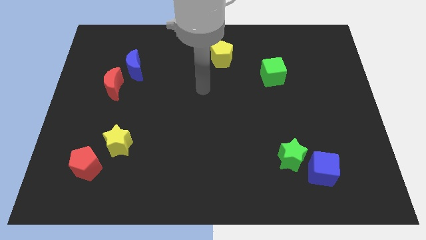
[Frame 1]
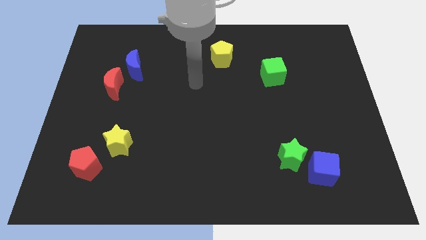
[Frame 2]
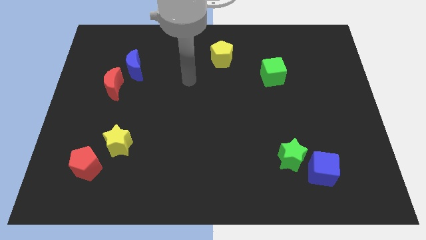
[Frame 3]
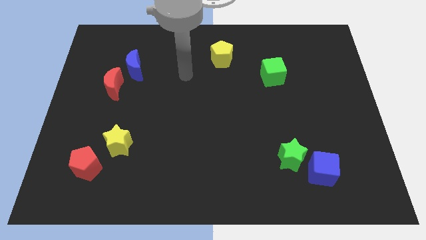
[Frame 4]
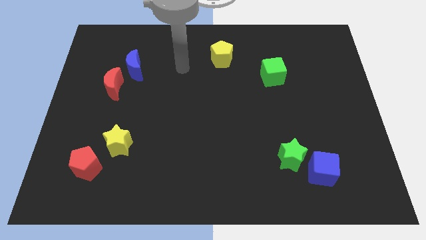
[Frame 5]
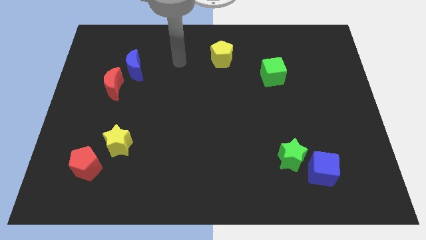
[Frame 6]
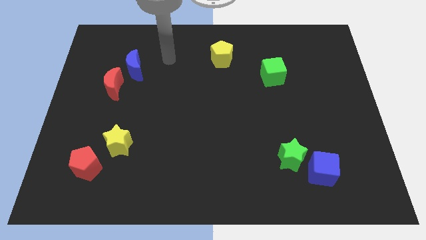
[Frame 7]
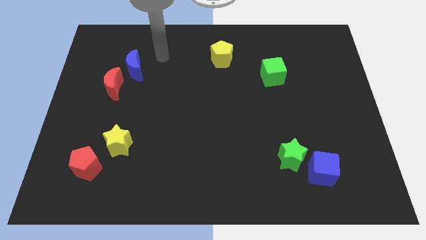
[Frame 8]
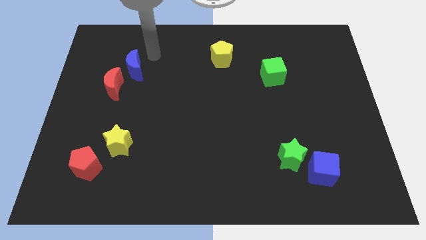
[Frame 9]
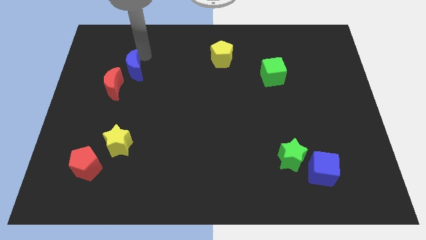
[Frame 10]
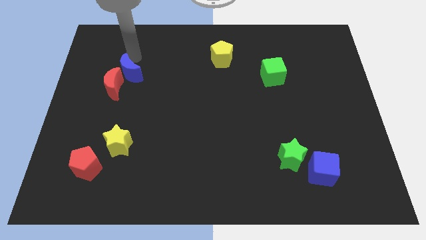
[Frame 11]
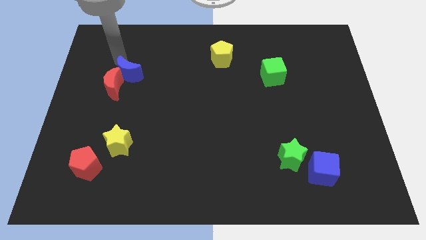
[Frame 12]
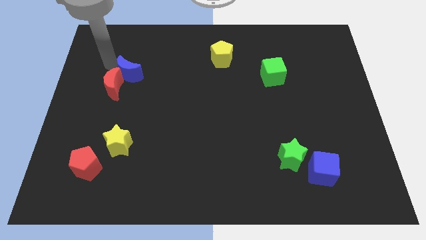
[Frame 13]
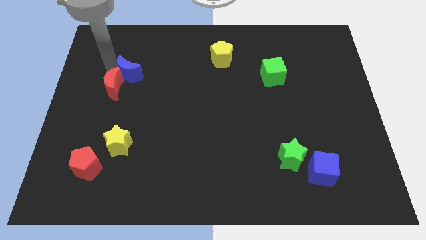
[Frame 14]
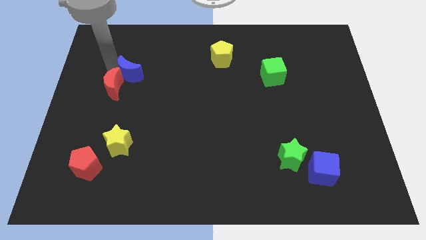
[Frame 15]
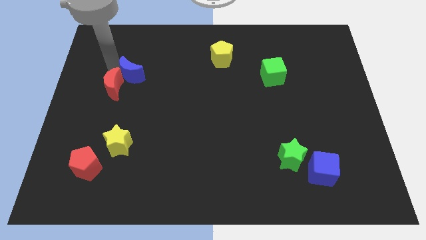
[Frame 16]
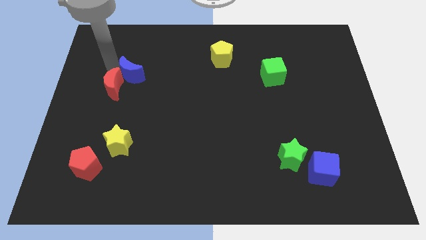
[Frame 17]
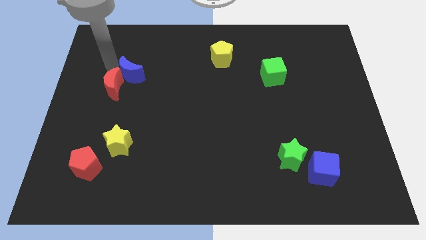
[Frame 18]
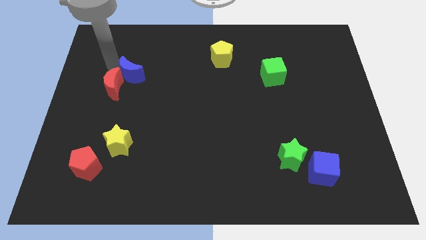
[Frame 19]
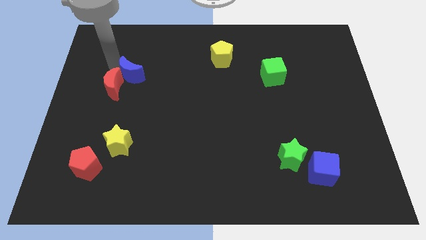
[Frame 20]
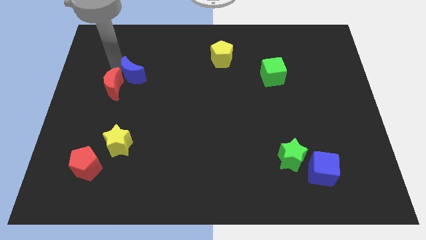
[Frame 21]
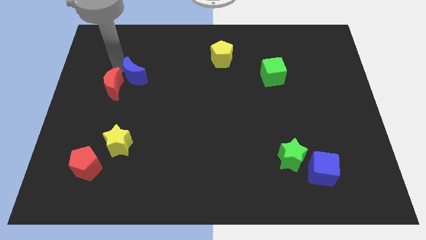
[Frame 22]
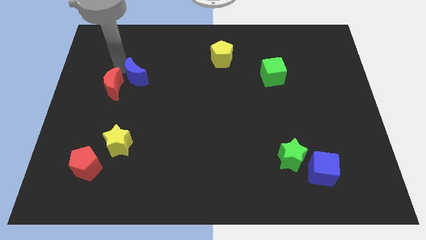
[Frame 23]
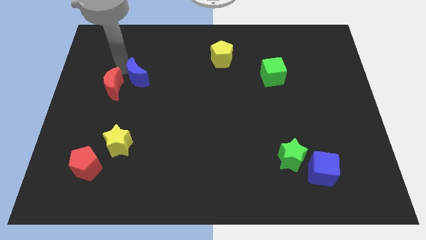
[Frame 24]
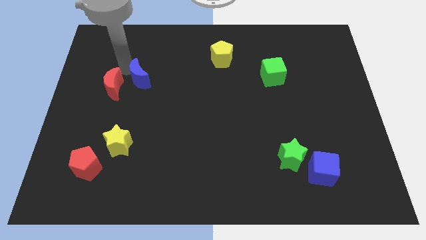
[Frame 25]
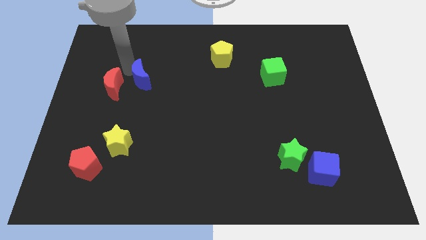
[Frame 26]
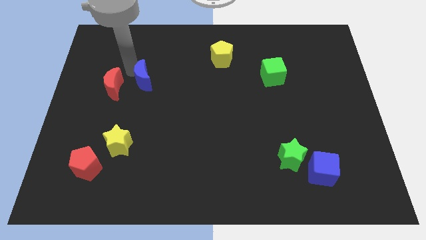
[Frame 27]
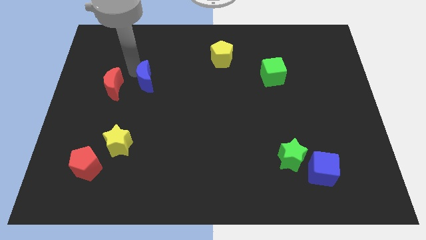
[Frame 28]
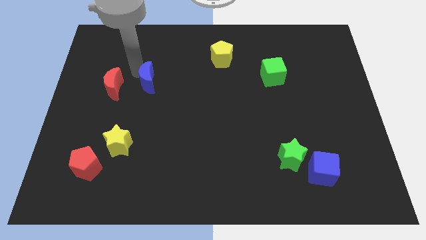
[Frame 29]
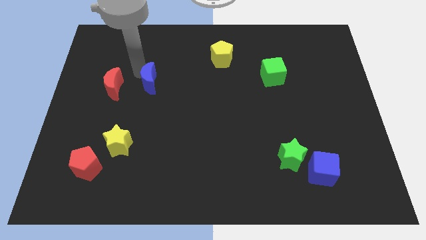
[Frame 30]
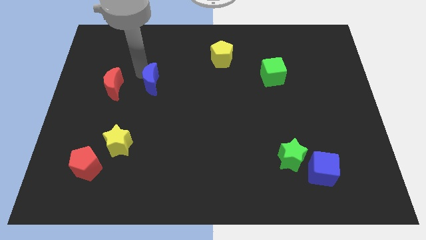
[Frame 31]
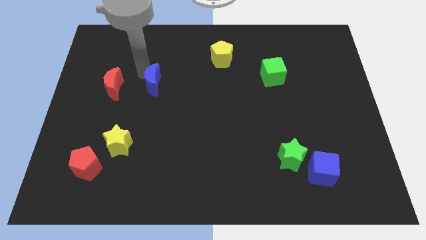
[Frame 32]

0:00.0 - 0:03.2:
slightly move the blue moon down and right

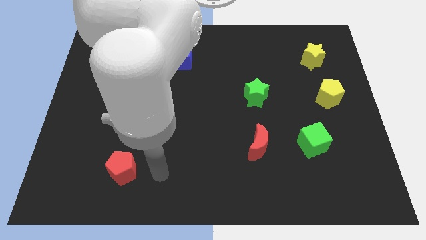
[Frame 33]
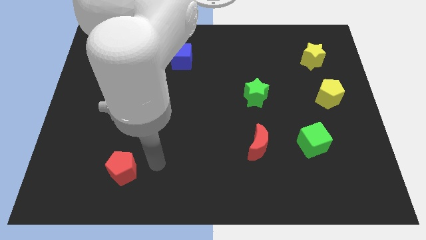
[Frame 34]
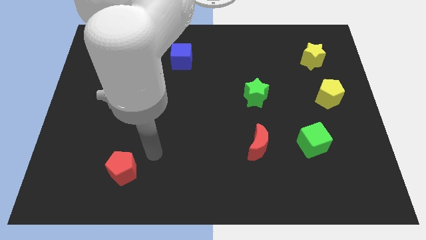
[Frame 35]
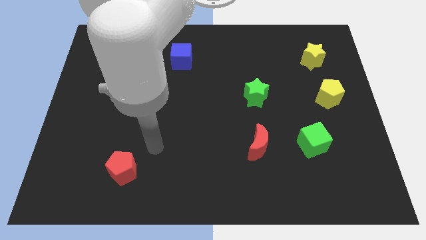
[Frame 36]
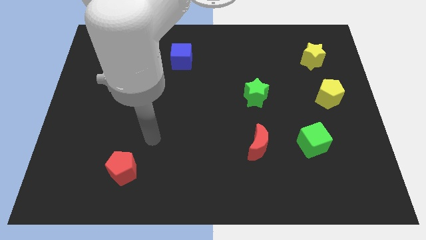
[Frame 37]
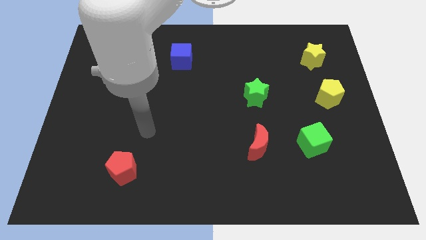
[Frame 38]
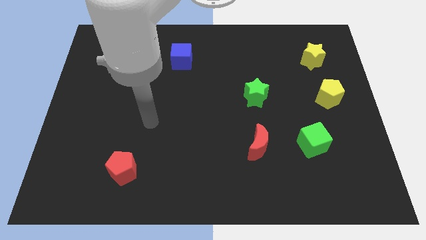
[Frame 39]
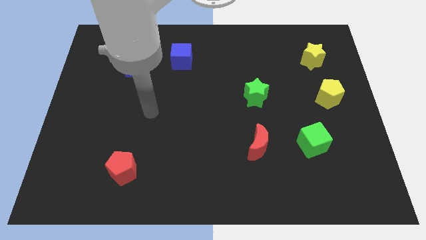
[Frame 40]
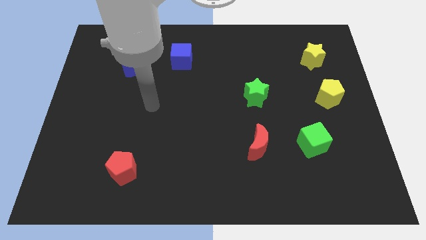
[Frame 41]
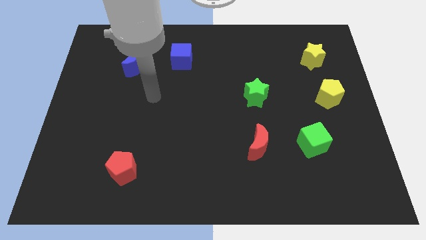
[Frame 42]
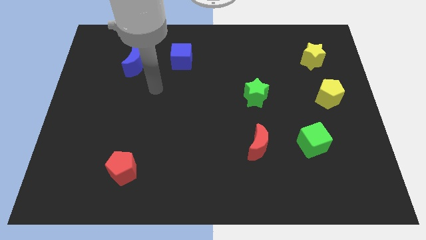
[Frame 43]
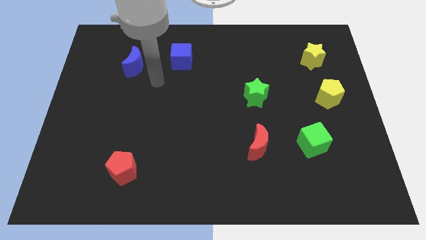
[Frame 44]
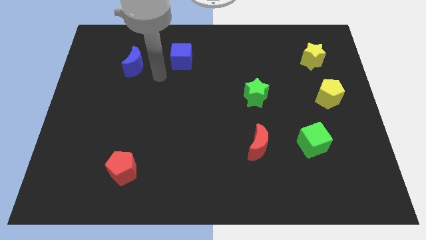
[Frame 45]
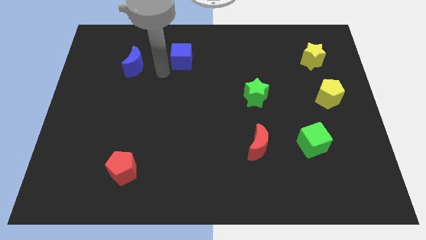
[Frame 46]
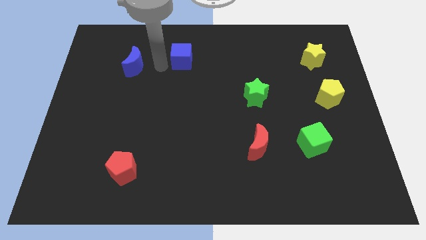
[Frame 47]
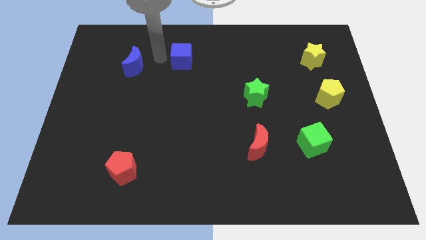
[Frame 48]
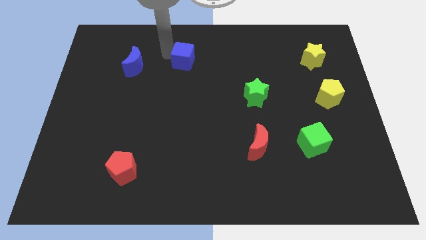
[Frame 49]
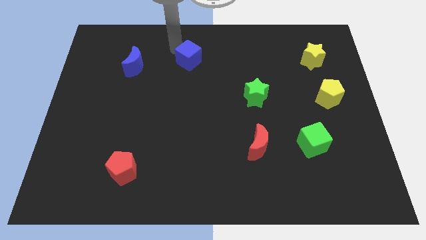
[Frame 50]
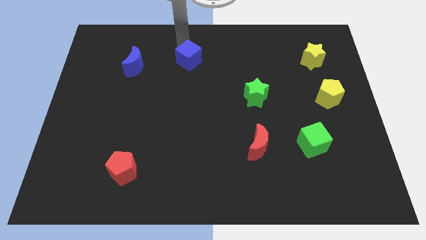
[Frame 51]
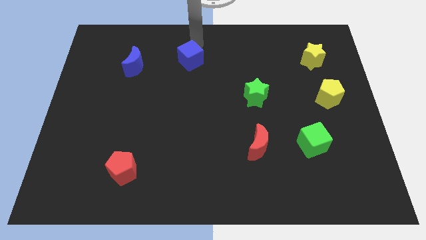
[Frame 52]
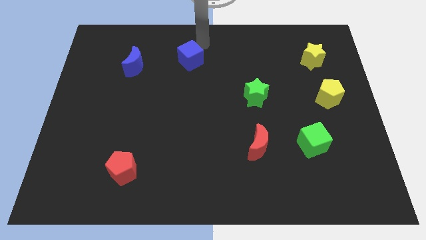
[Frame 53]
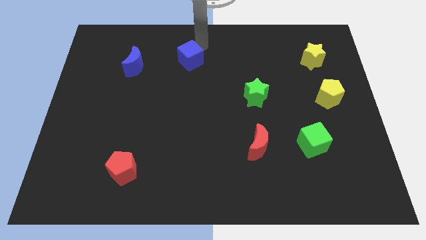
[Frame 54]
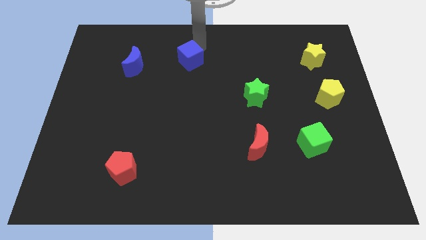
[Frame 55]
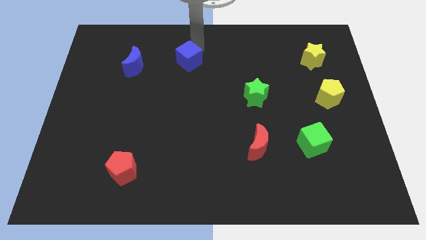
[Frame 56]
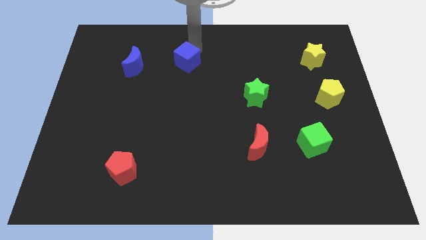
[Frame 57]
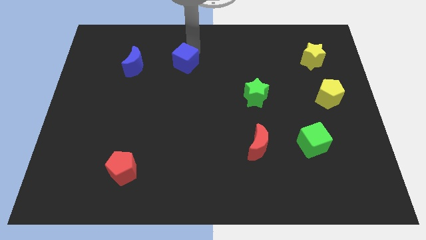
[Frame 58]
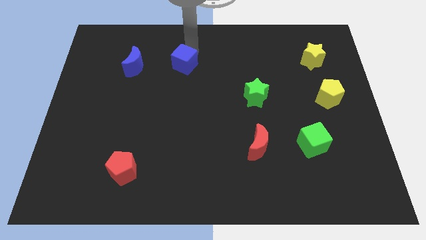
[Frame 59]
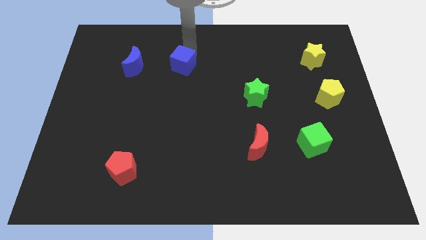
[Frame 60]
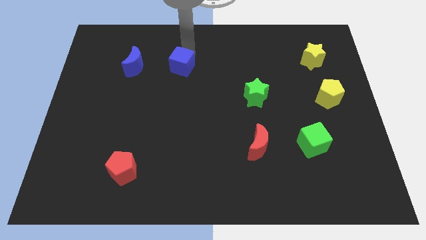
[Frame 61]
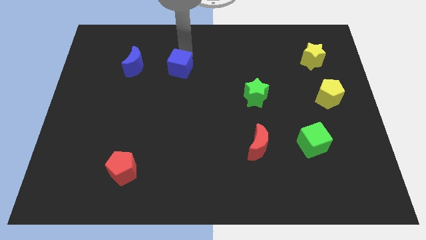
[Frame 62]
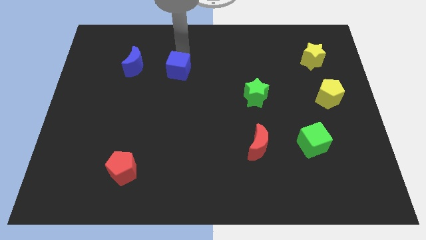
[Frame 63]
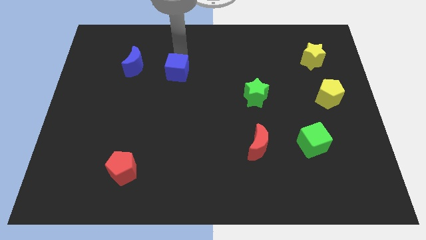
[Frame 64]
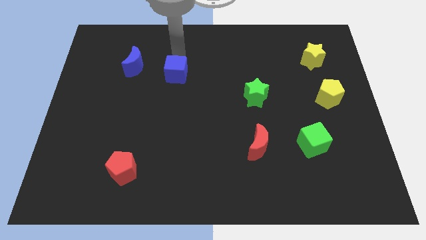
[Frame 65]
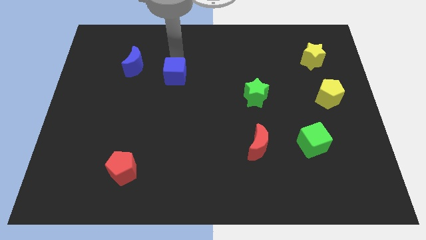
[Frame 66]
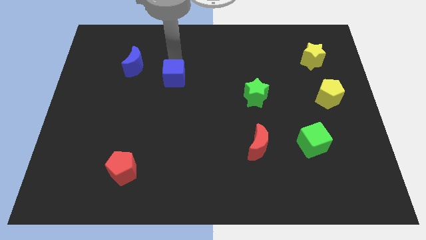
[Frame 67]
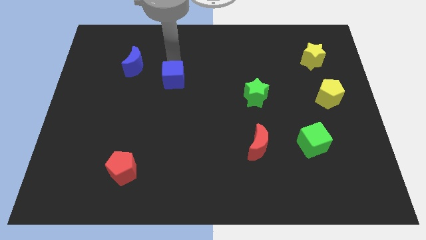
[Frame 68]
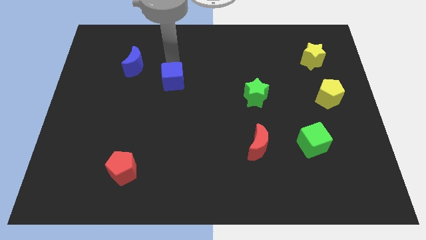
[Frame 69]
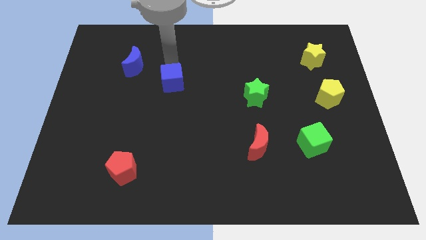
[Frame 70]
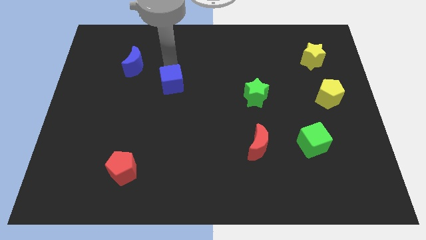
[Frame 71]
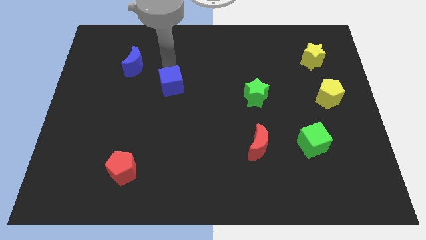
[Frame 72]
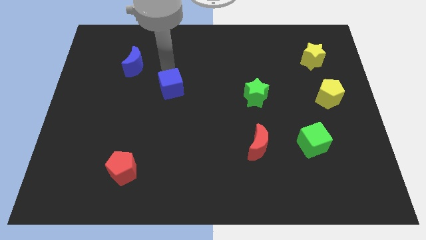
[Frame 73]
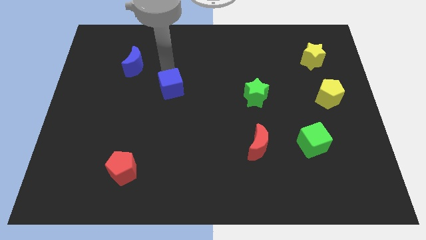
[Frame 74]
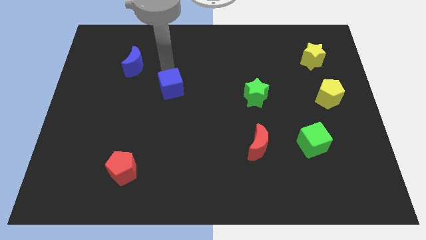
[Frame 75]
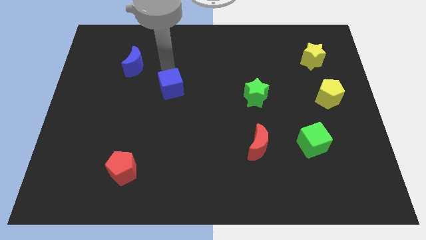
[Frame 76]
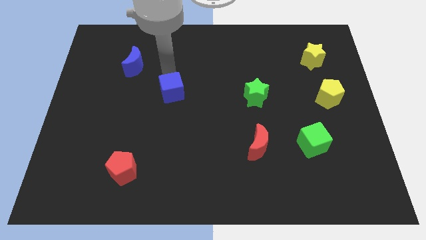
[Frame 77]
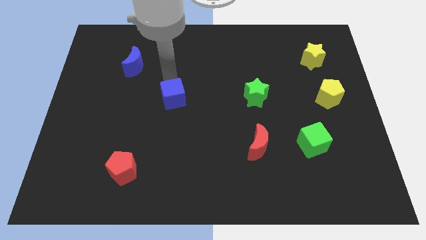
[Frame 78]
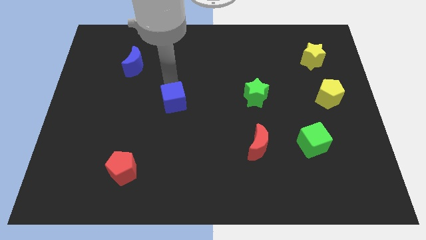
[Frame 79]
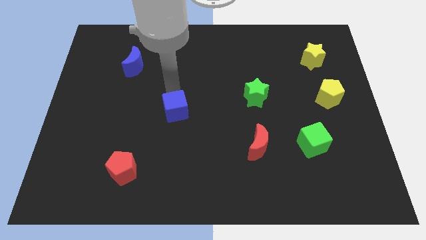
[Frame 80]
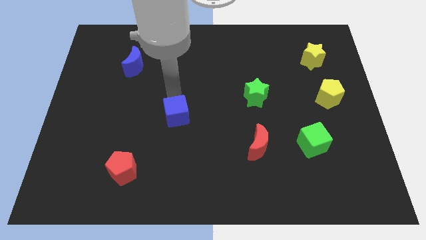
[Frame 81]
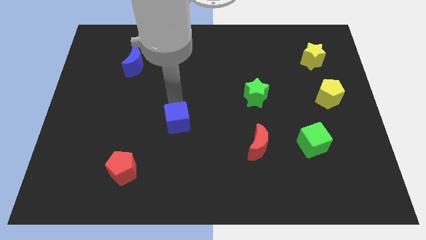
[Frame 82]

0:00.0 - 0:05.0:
slide the blue cube down
